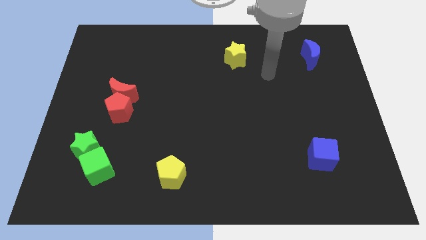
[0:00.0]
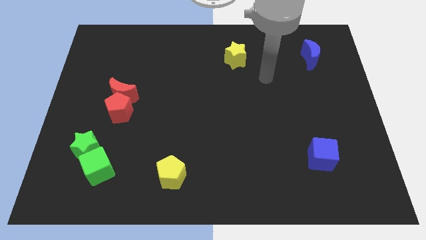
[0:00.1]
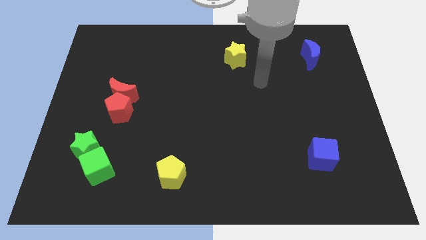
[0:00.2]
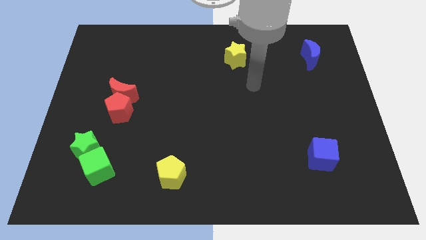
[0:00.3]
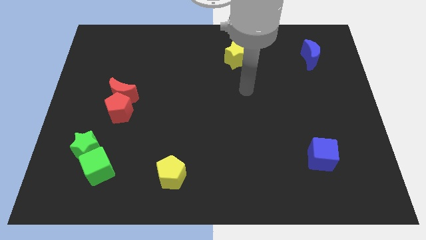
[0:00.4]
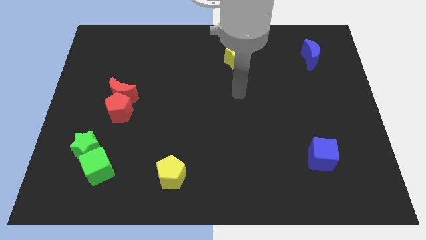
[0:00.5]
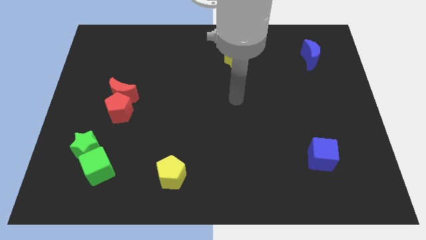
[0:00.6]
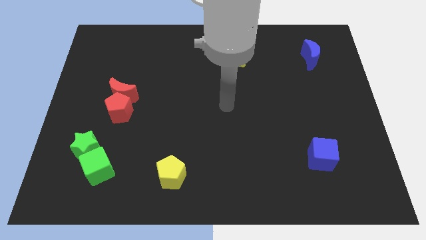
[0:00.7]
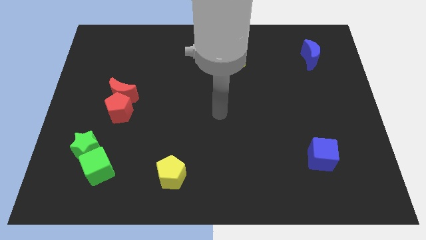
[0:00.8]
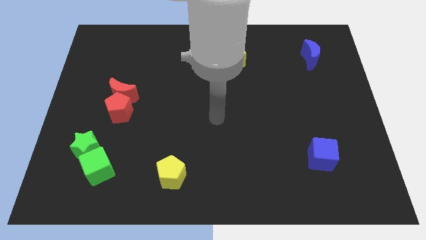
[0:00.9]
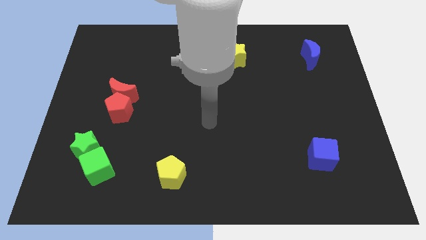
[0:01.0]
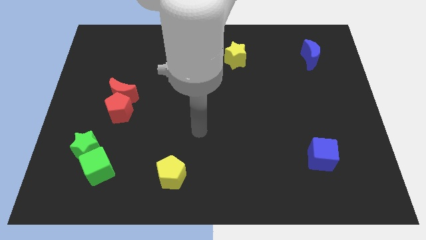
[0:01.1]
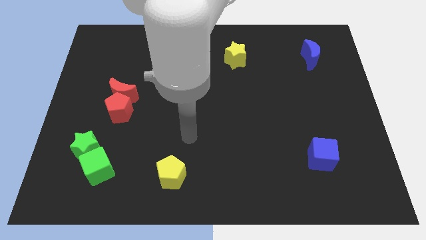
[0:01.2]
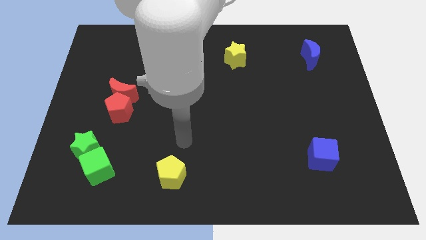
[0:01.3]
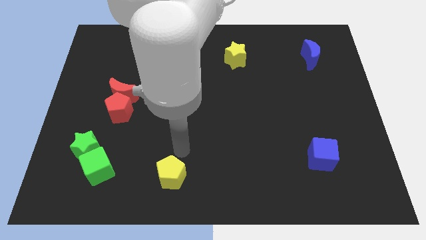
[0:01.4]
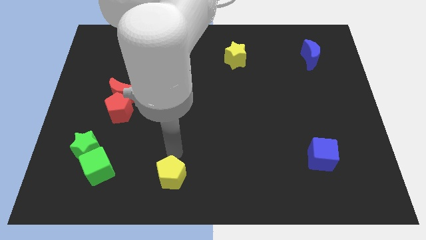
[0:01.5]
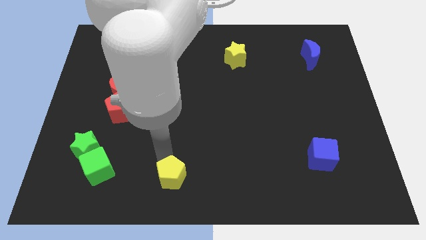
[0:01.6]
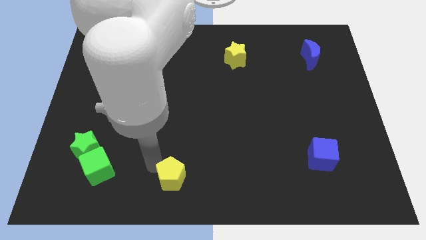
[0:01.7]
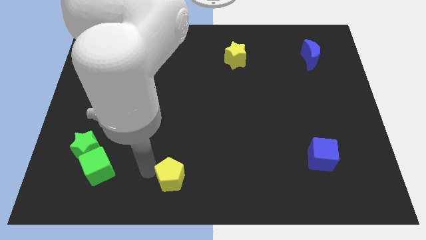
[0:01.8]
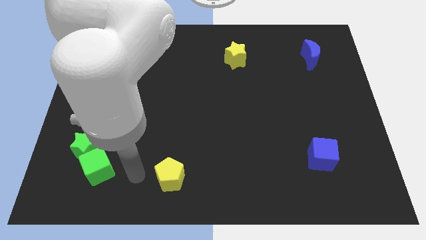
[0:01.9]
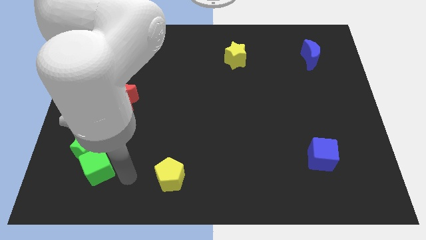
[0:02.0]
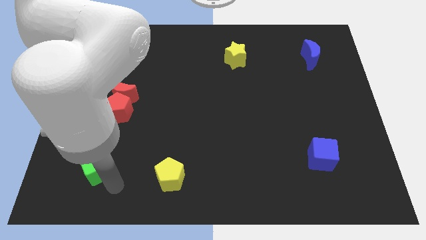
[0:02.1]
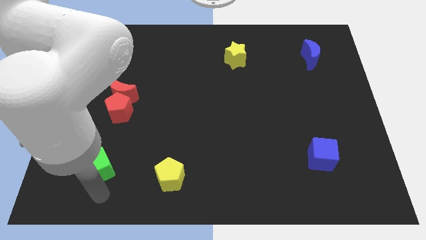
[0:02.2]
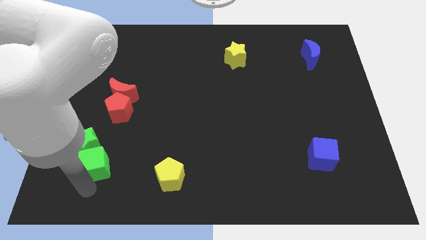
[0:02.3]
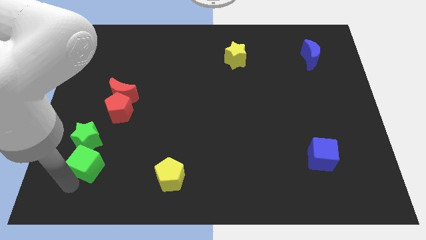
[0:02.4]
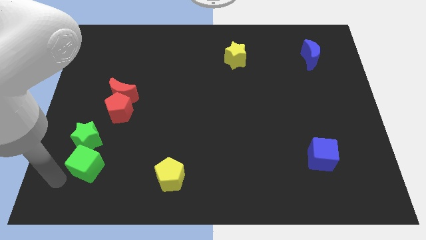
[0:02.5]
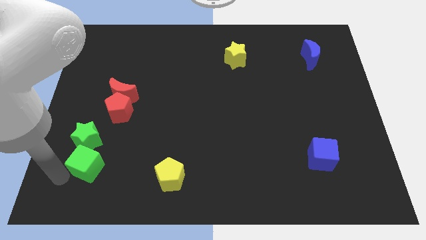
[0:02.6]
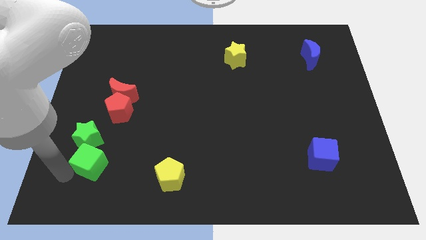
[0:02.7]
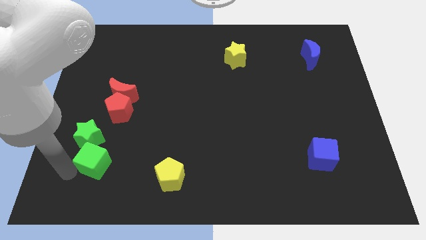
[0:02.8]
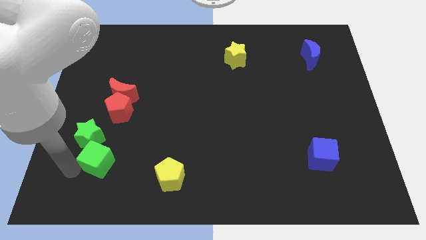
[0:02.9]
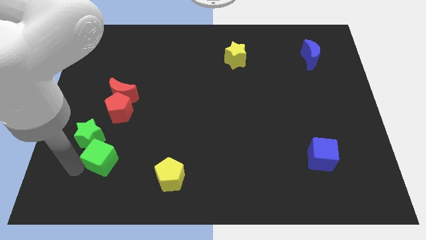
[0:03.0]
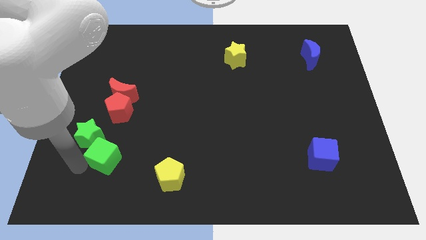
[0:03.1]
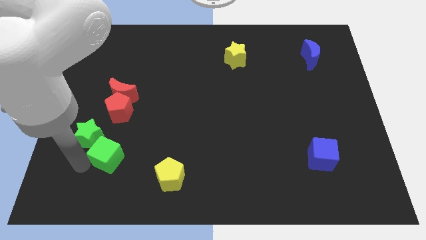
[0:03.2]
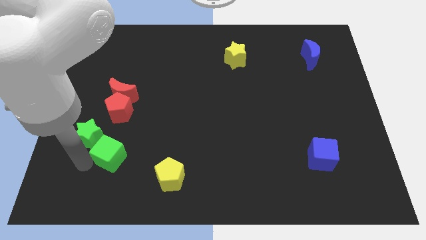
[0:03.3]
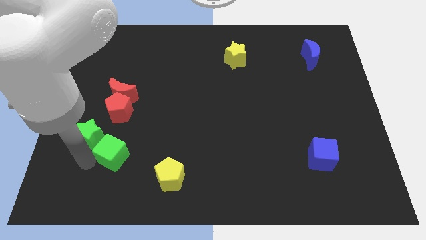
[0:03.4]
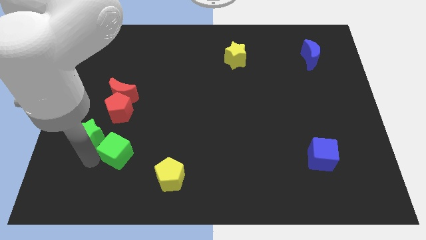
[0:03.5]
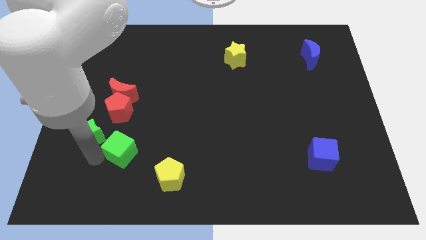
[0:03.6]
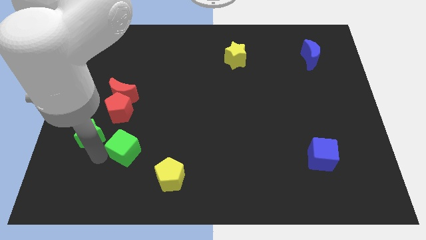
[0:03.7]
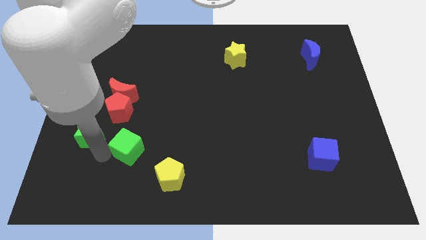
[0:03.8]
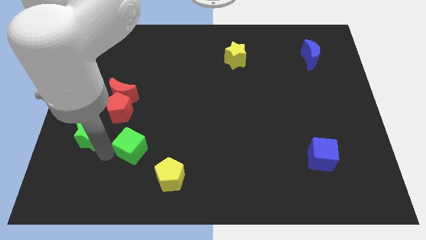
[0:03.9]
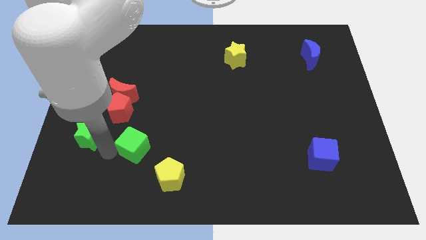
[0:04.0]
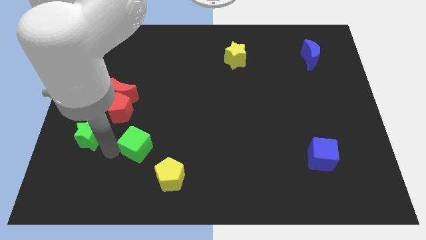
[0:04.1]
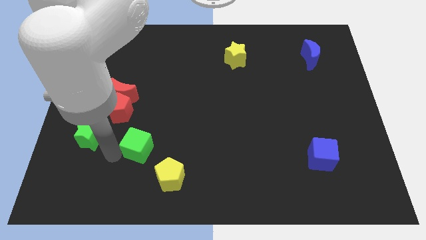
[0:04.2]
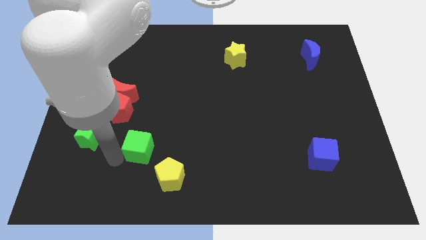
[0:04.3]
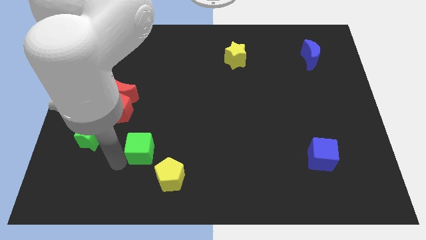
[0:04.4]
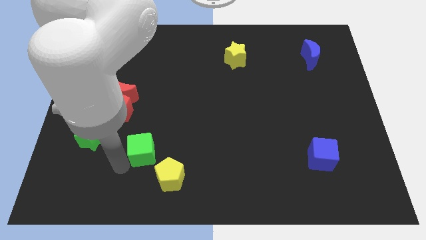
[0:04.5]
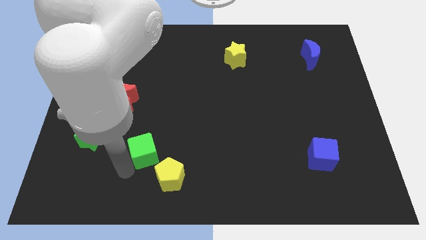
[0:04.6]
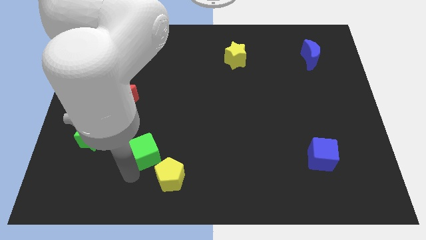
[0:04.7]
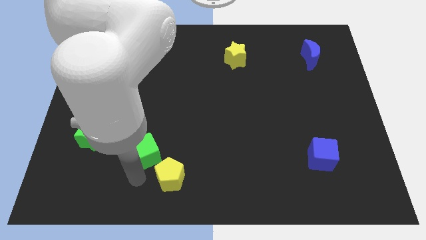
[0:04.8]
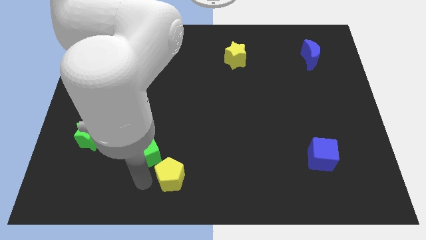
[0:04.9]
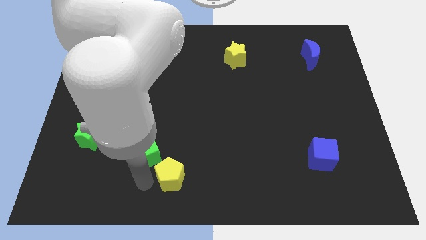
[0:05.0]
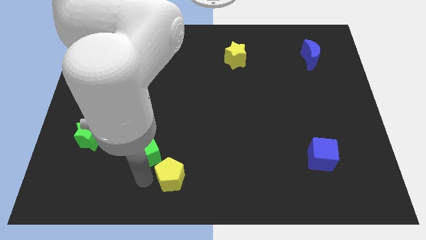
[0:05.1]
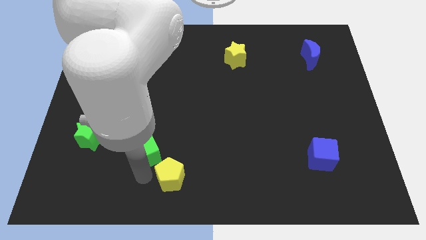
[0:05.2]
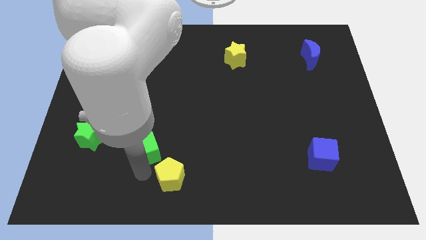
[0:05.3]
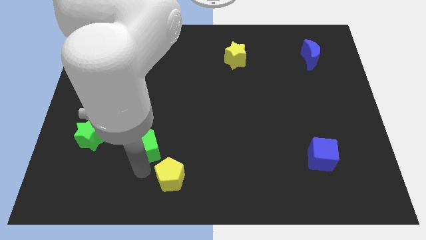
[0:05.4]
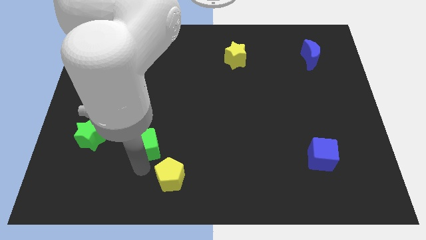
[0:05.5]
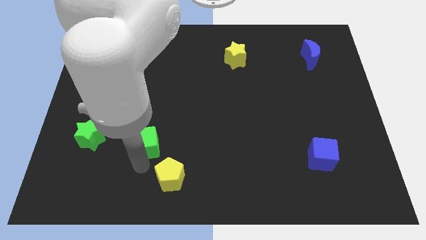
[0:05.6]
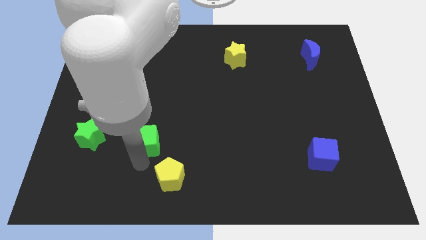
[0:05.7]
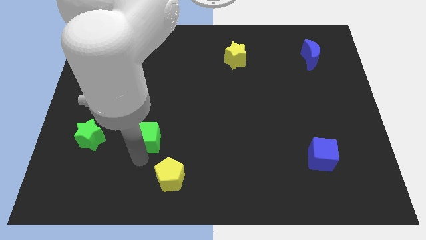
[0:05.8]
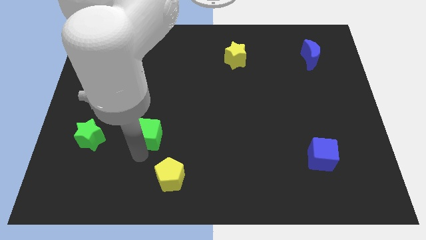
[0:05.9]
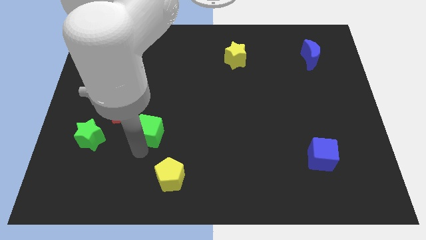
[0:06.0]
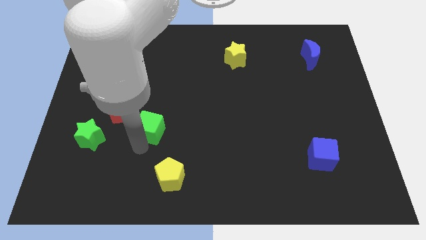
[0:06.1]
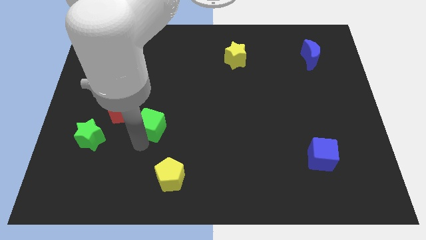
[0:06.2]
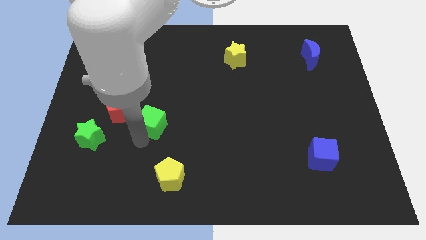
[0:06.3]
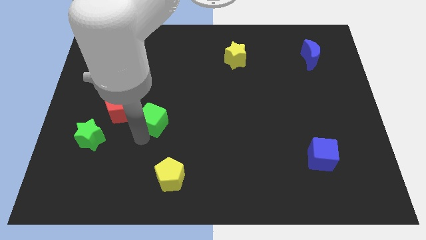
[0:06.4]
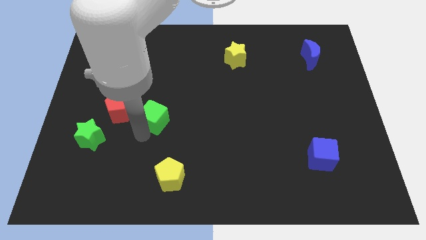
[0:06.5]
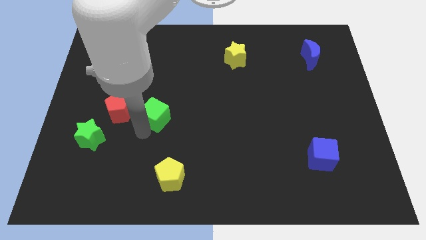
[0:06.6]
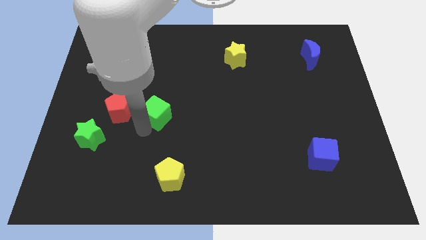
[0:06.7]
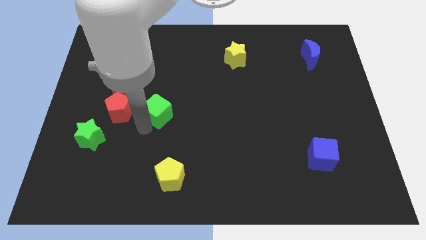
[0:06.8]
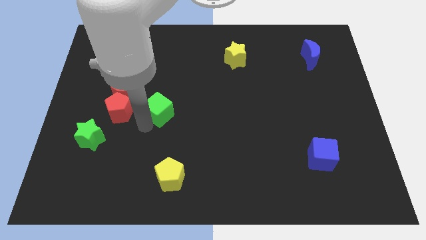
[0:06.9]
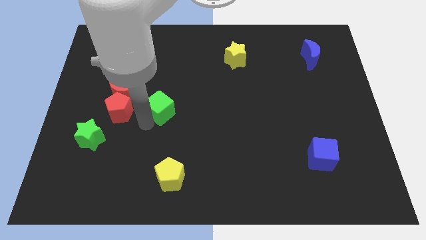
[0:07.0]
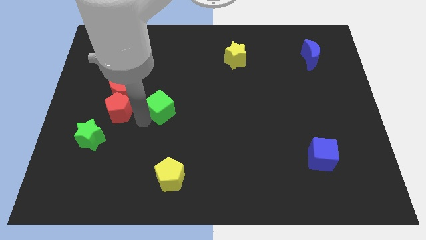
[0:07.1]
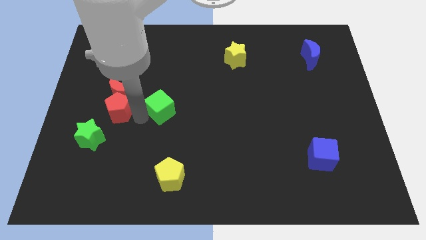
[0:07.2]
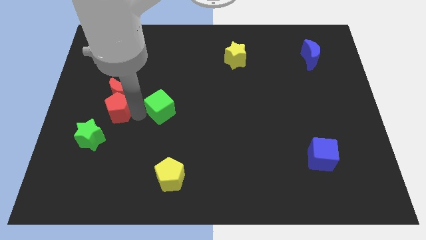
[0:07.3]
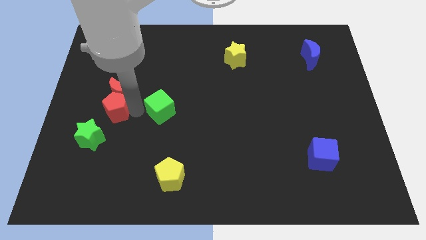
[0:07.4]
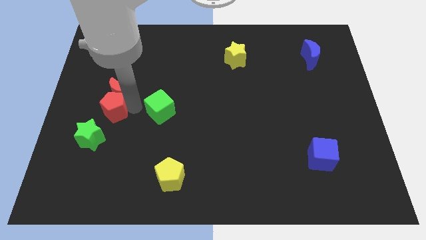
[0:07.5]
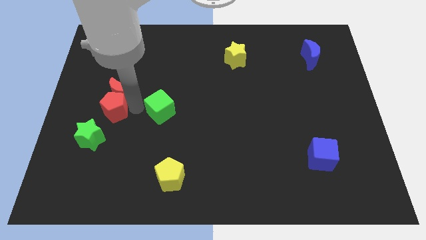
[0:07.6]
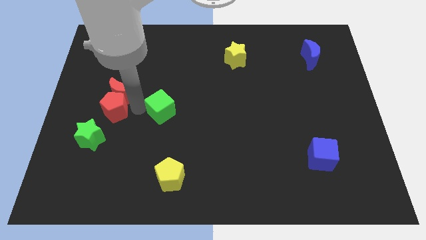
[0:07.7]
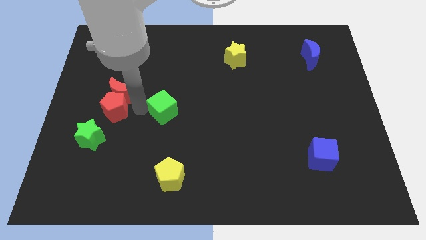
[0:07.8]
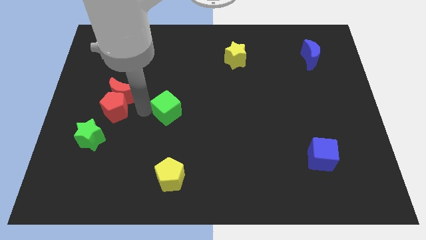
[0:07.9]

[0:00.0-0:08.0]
push the green cube upwards and then to the right
